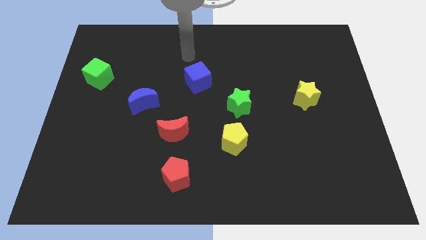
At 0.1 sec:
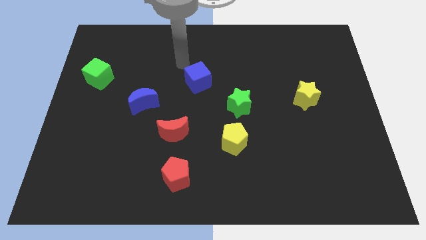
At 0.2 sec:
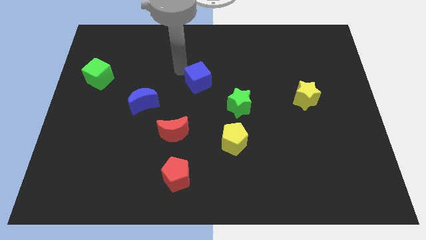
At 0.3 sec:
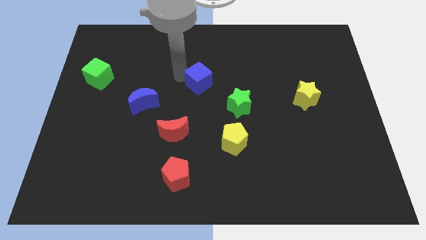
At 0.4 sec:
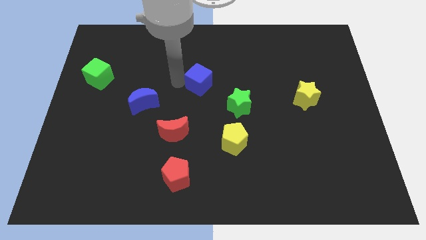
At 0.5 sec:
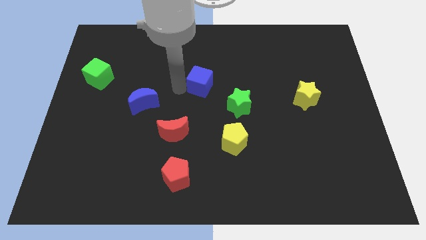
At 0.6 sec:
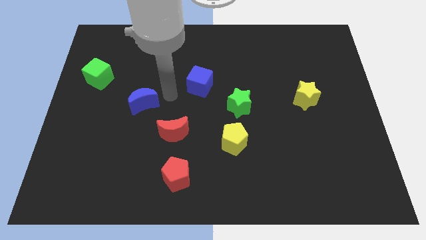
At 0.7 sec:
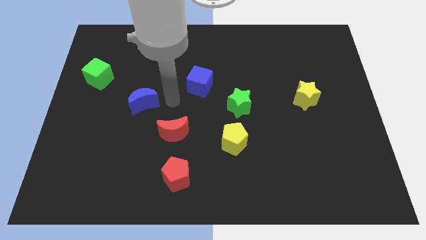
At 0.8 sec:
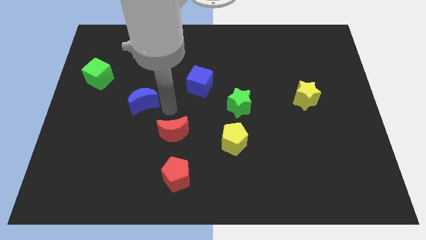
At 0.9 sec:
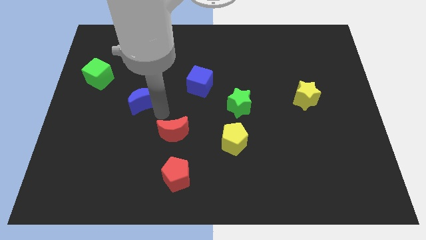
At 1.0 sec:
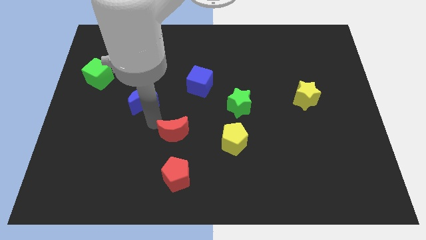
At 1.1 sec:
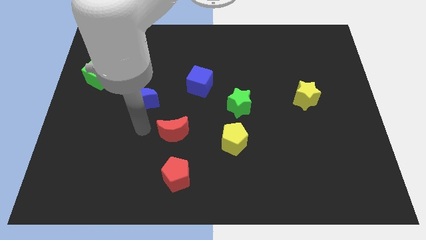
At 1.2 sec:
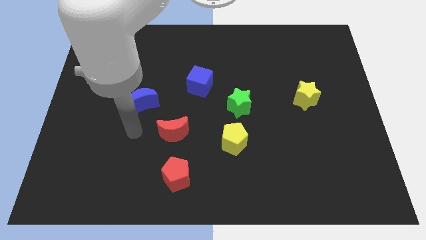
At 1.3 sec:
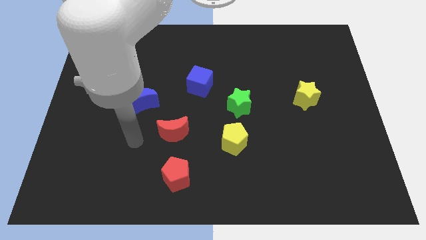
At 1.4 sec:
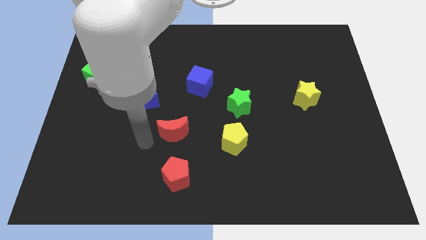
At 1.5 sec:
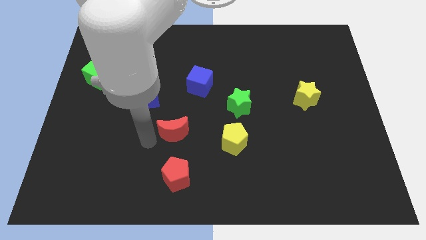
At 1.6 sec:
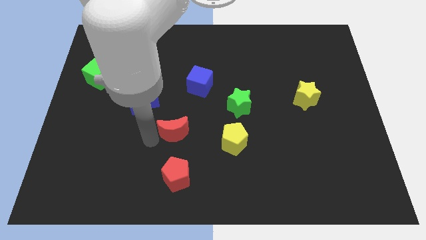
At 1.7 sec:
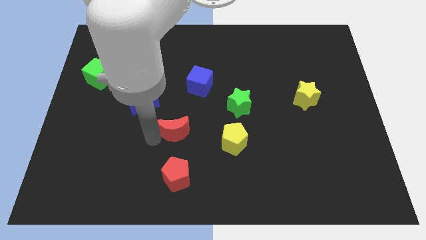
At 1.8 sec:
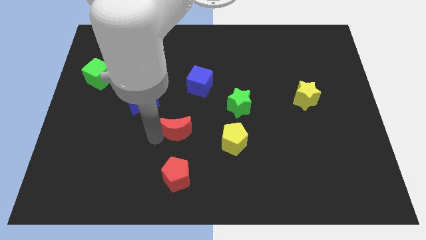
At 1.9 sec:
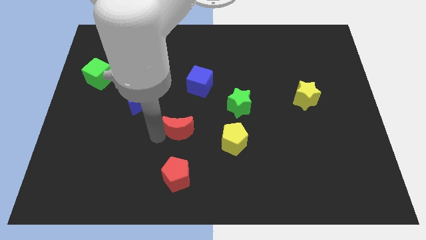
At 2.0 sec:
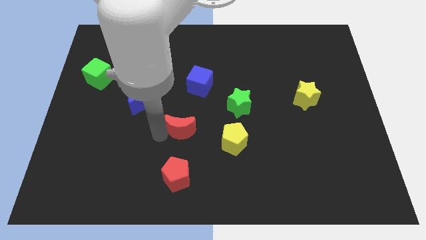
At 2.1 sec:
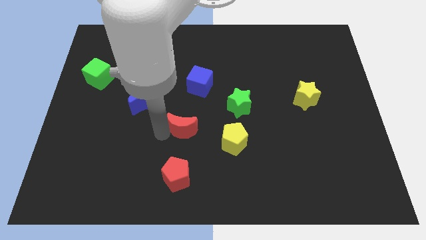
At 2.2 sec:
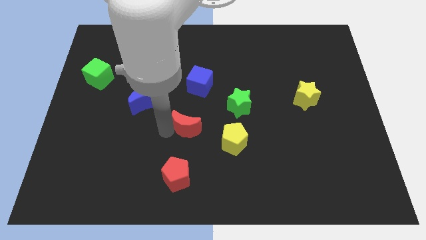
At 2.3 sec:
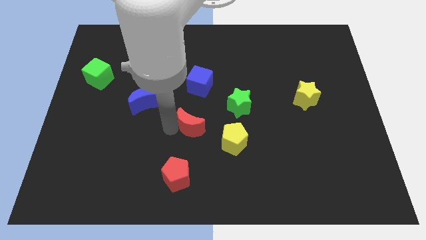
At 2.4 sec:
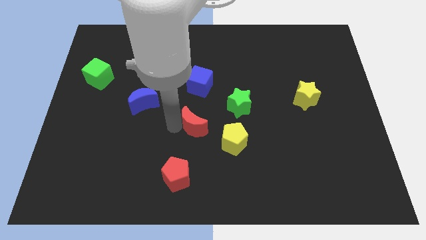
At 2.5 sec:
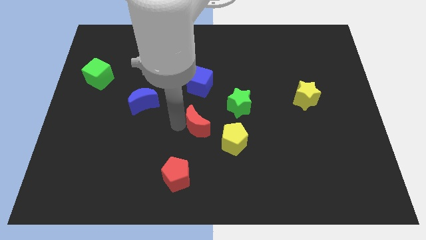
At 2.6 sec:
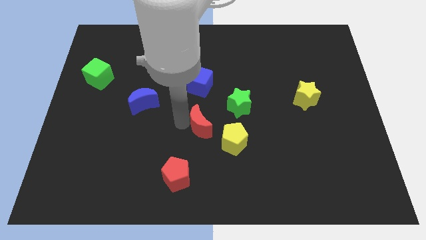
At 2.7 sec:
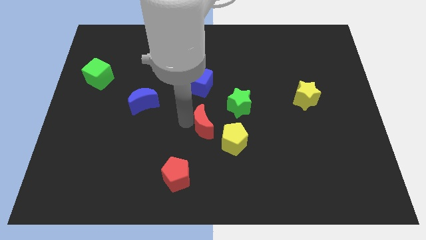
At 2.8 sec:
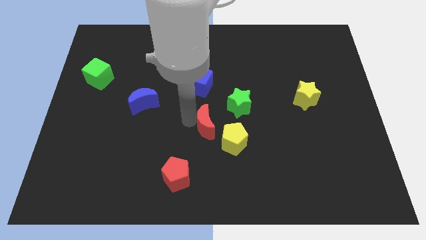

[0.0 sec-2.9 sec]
slightly push the red moon to the right

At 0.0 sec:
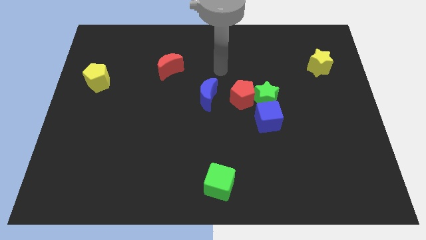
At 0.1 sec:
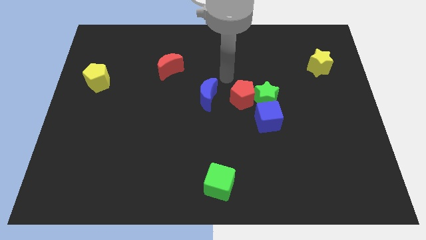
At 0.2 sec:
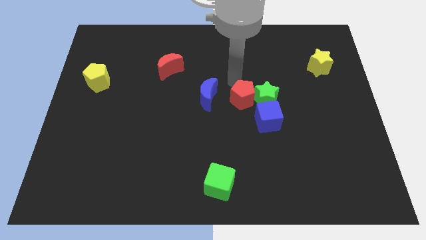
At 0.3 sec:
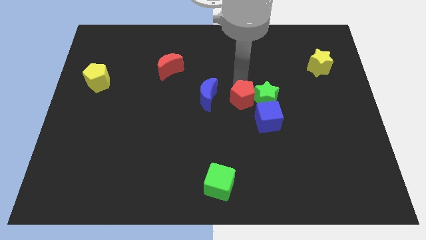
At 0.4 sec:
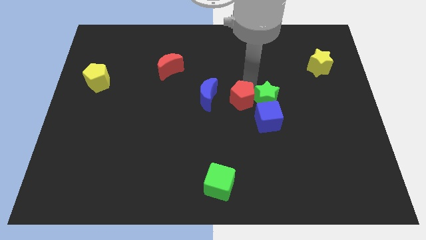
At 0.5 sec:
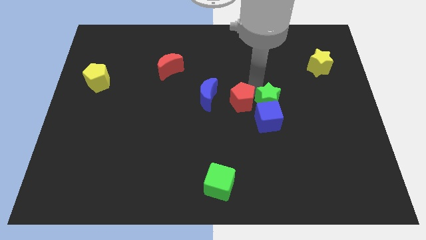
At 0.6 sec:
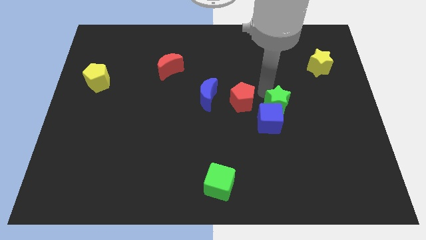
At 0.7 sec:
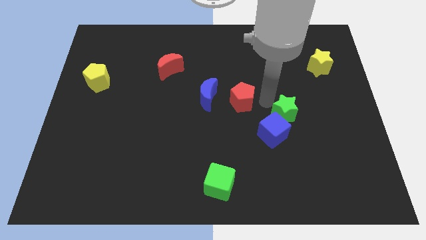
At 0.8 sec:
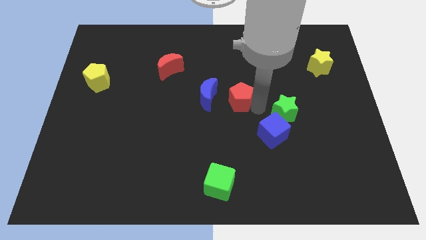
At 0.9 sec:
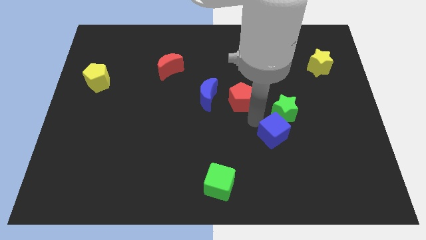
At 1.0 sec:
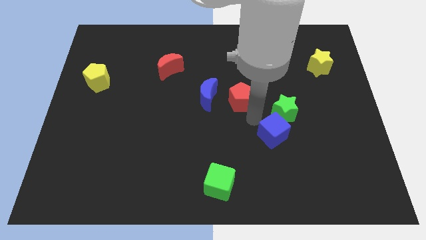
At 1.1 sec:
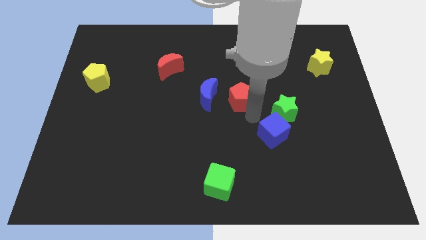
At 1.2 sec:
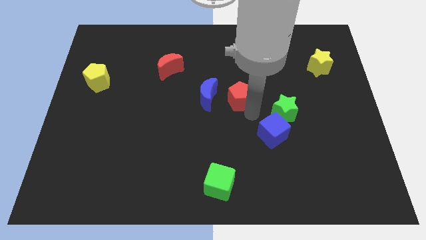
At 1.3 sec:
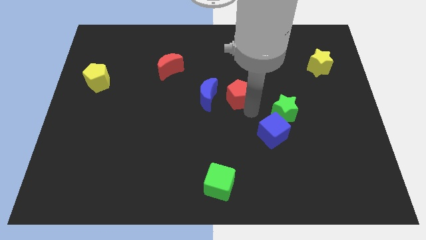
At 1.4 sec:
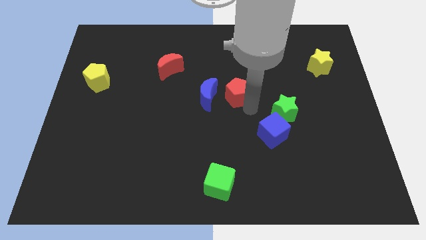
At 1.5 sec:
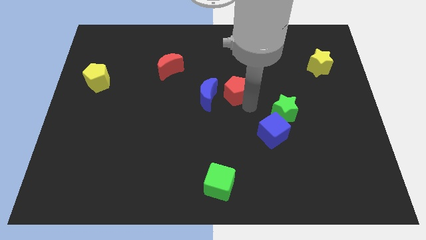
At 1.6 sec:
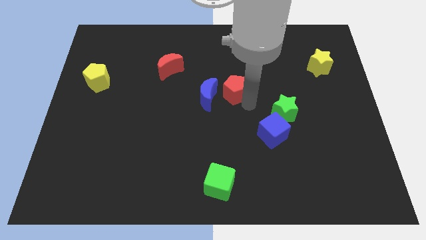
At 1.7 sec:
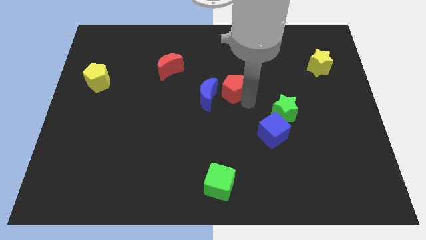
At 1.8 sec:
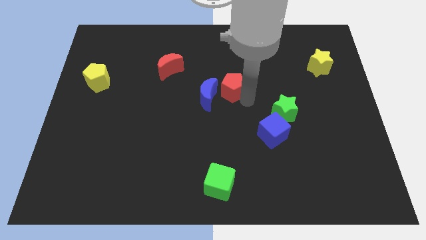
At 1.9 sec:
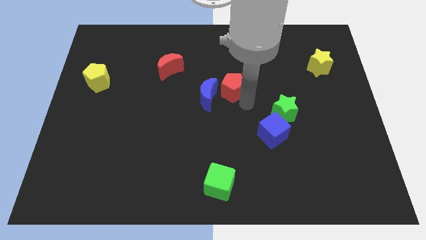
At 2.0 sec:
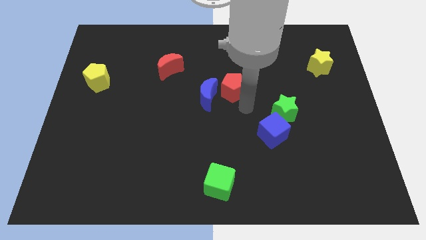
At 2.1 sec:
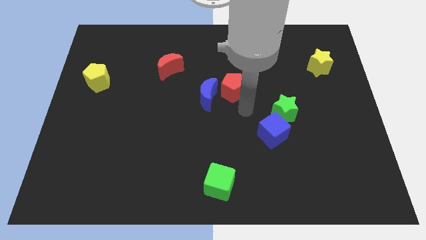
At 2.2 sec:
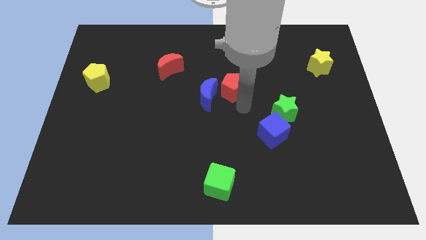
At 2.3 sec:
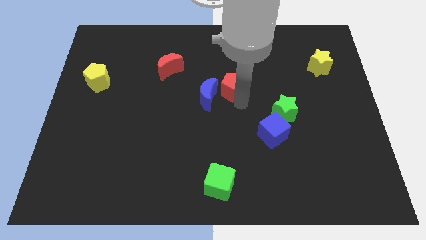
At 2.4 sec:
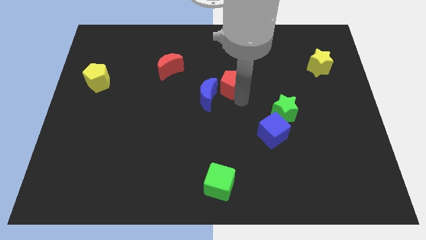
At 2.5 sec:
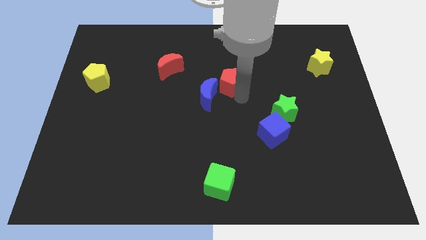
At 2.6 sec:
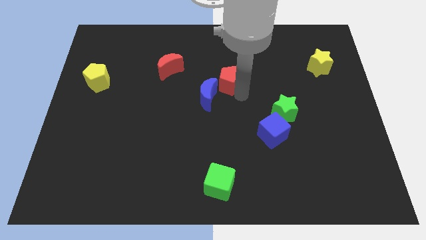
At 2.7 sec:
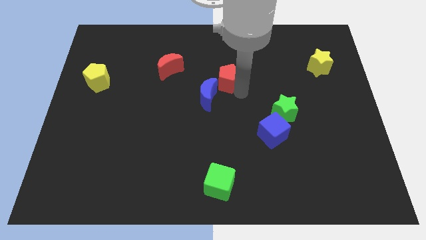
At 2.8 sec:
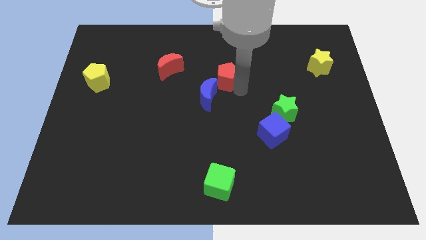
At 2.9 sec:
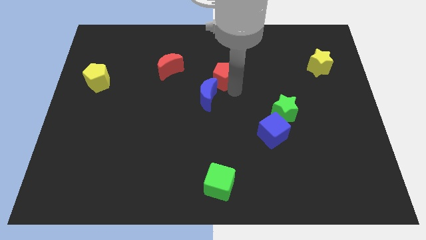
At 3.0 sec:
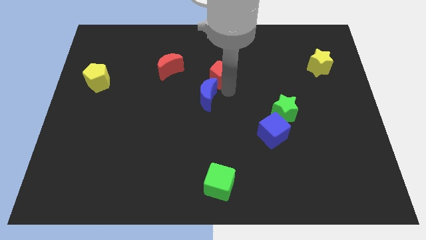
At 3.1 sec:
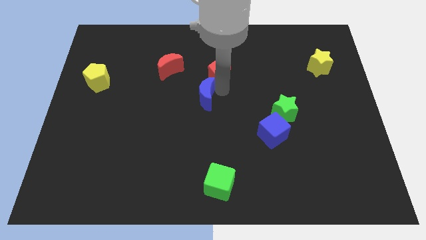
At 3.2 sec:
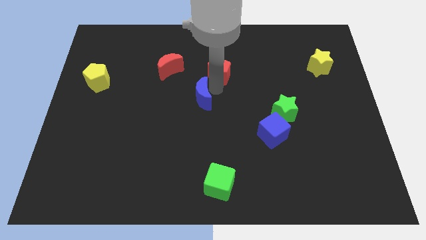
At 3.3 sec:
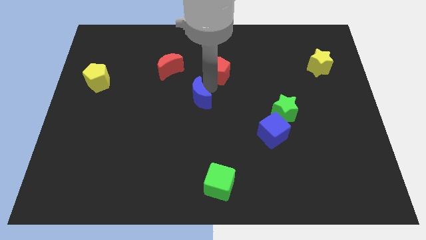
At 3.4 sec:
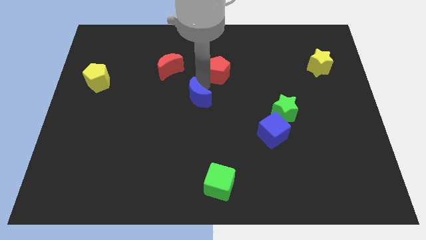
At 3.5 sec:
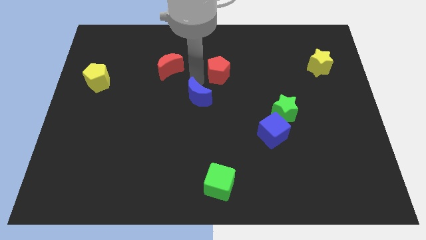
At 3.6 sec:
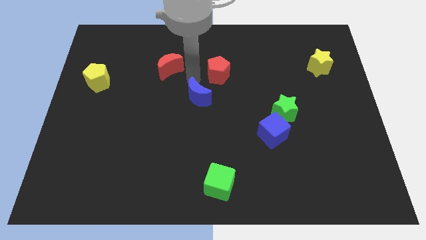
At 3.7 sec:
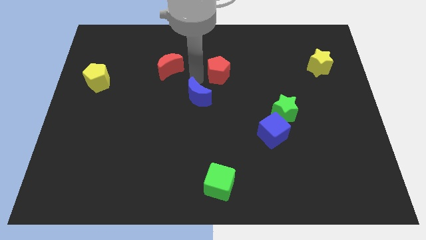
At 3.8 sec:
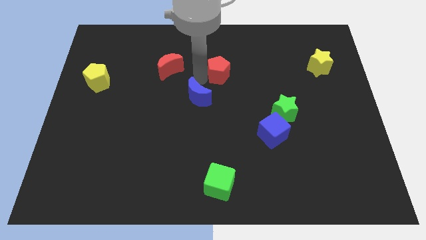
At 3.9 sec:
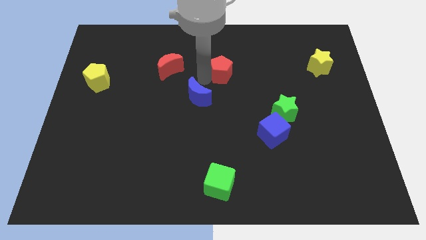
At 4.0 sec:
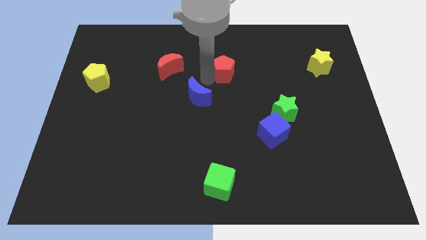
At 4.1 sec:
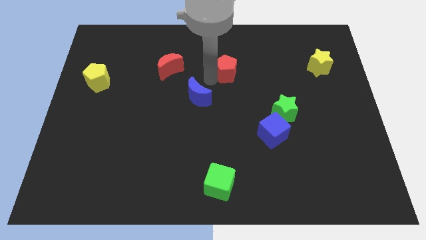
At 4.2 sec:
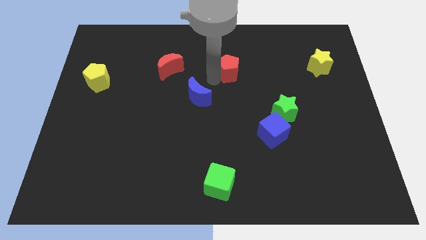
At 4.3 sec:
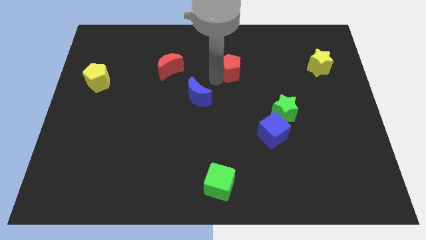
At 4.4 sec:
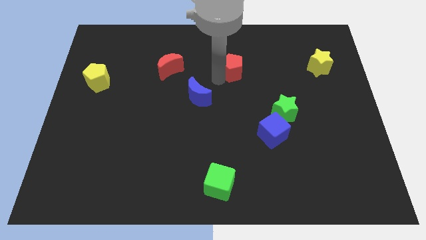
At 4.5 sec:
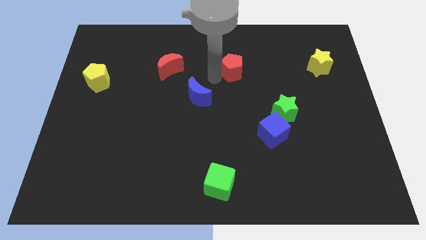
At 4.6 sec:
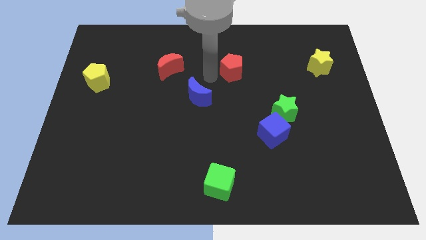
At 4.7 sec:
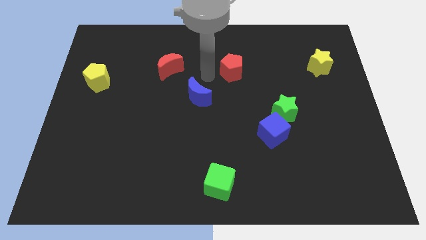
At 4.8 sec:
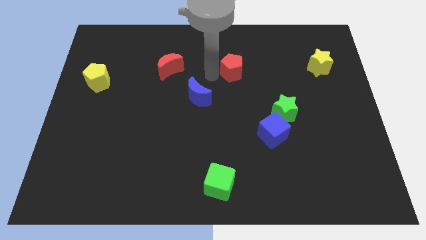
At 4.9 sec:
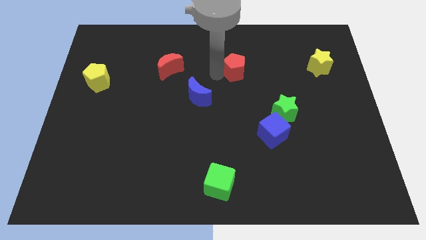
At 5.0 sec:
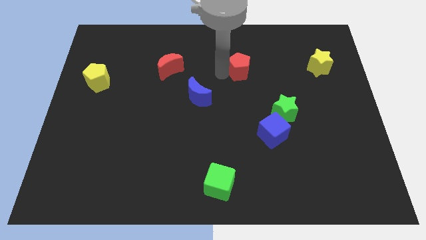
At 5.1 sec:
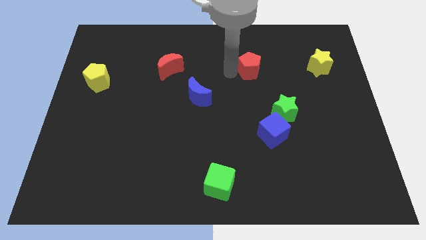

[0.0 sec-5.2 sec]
push the red pentagon a little upwards and to the right diagonally
